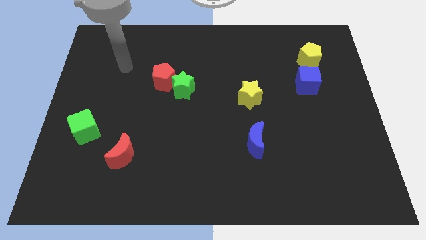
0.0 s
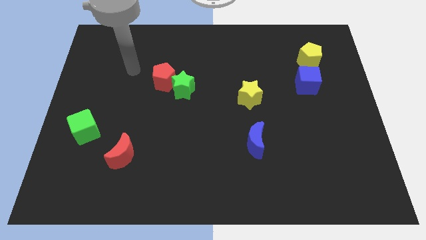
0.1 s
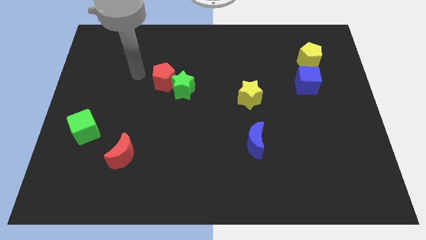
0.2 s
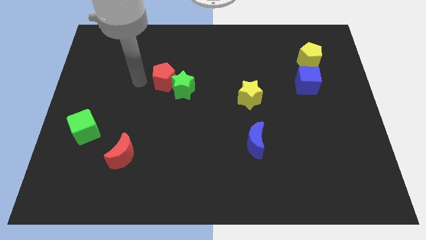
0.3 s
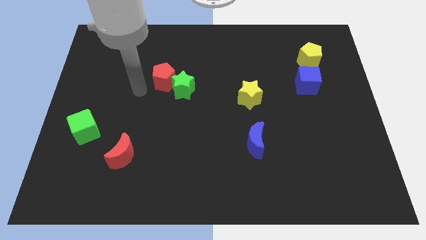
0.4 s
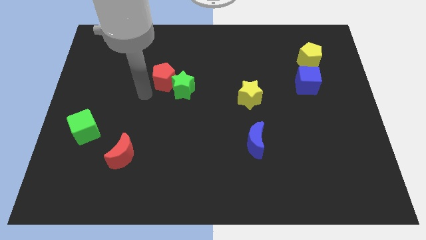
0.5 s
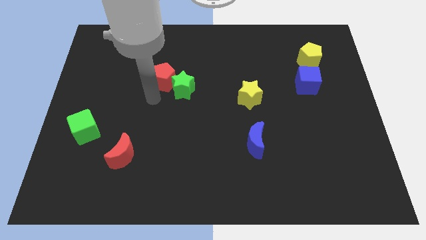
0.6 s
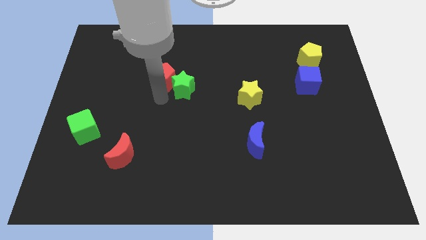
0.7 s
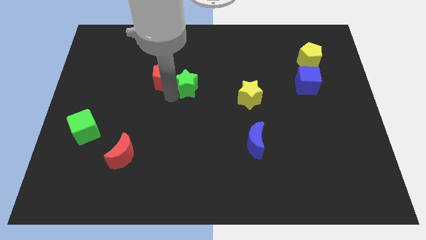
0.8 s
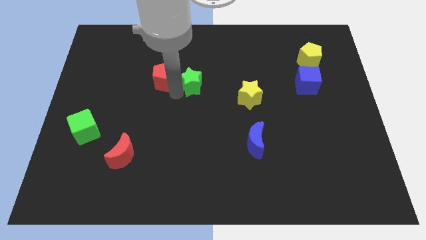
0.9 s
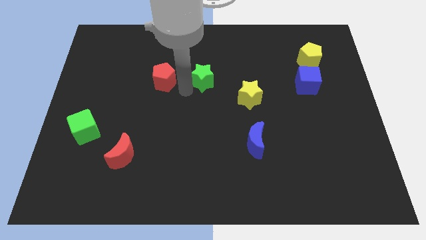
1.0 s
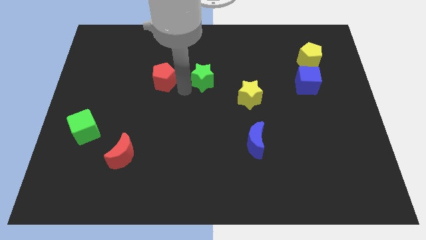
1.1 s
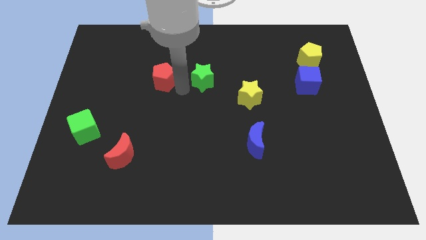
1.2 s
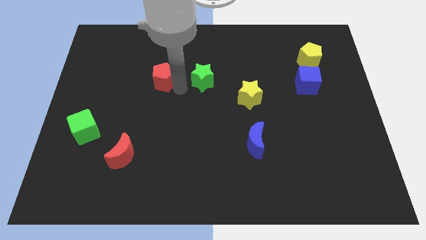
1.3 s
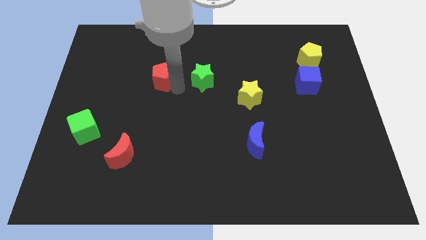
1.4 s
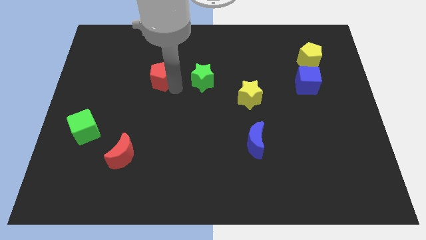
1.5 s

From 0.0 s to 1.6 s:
move the red pentagon away from the green star

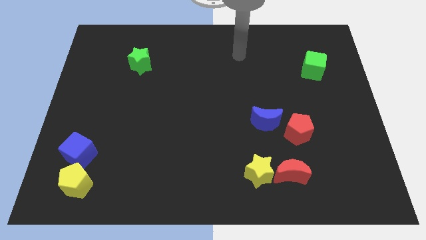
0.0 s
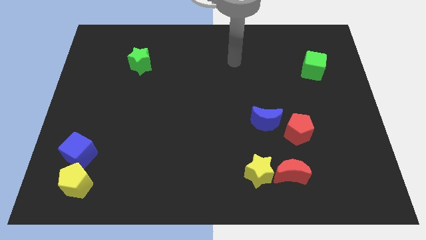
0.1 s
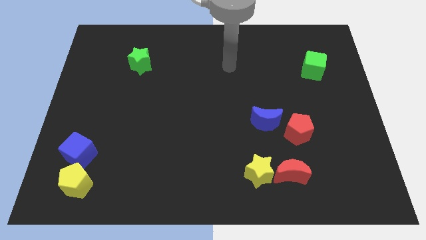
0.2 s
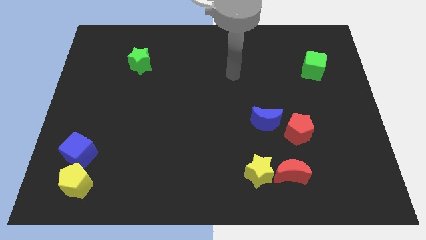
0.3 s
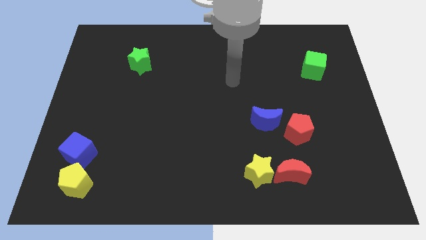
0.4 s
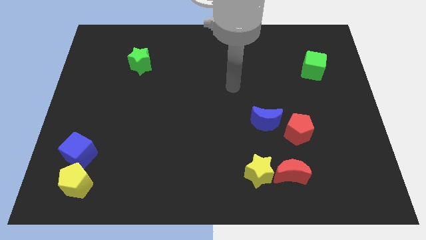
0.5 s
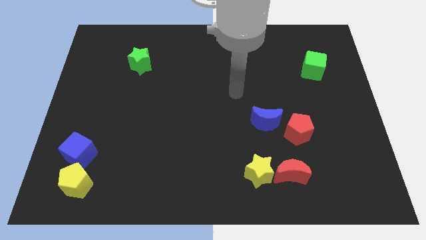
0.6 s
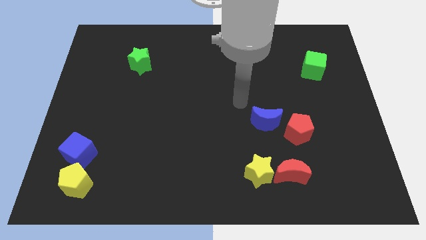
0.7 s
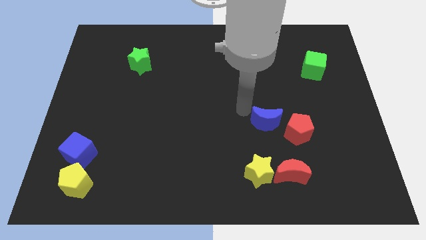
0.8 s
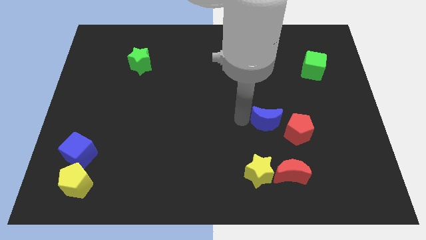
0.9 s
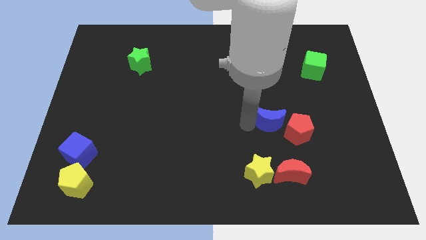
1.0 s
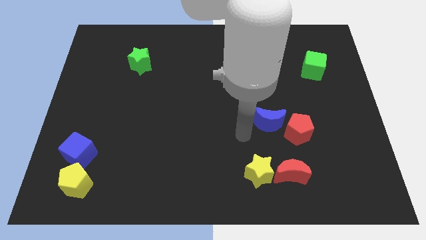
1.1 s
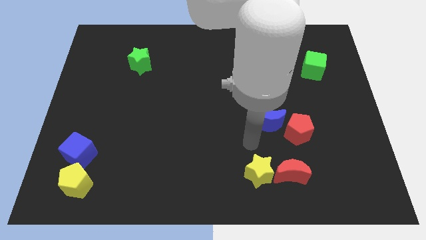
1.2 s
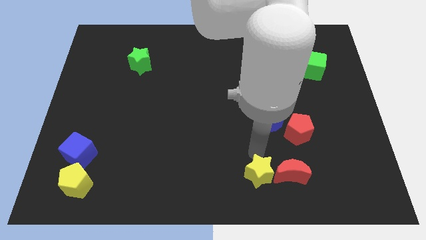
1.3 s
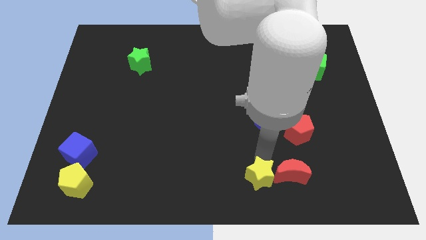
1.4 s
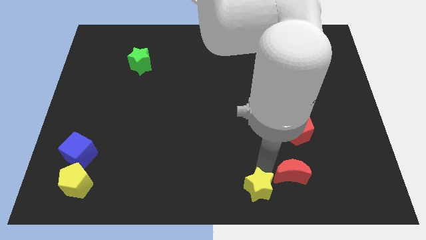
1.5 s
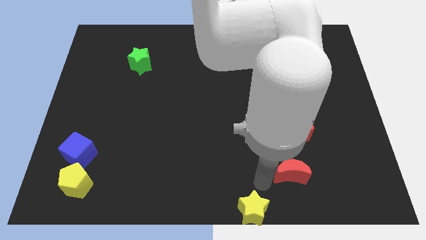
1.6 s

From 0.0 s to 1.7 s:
move the red moon away from the yellow star

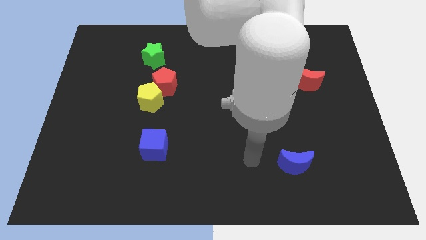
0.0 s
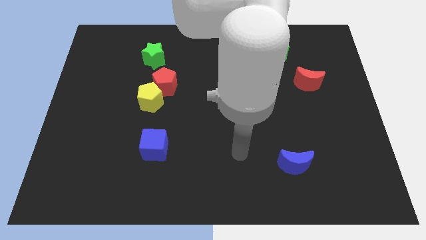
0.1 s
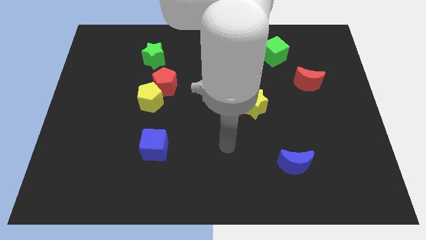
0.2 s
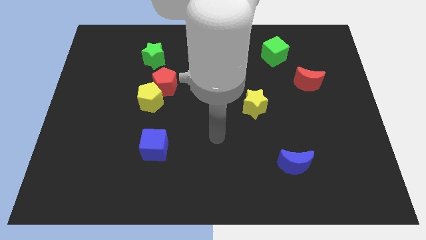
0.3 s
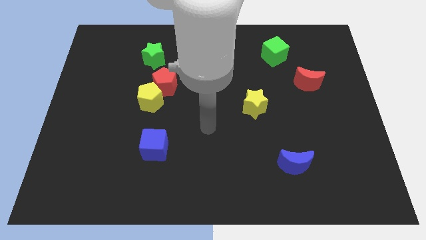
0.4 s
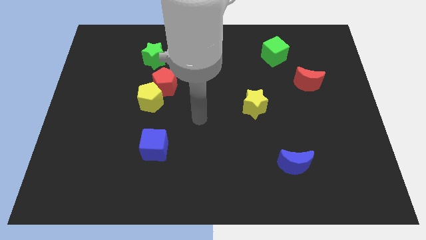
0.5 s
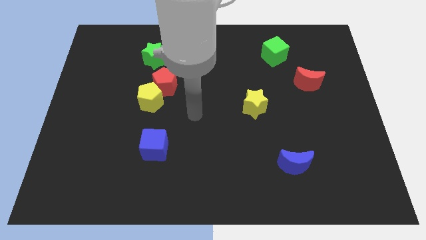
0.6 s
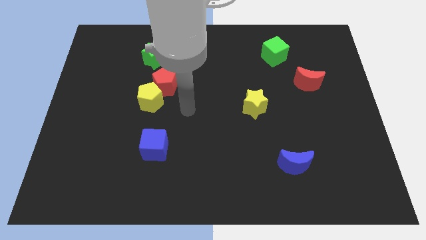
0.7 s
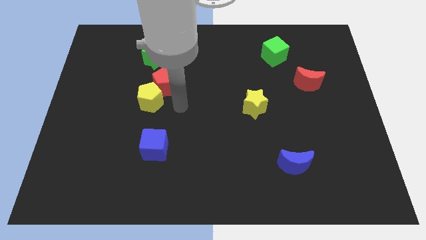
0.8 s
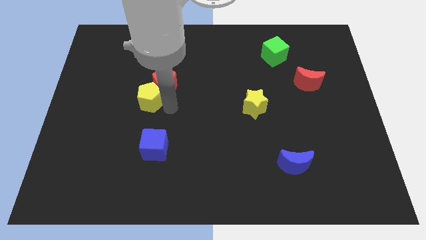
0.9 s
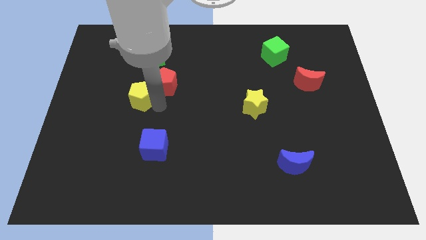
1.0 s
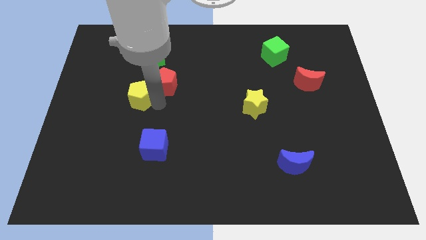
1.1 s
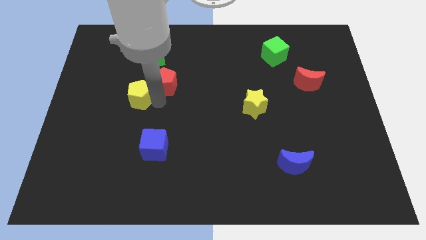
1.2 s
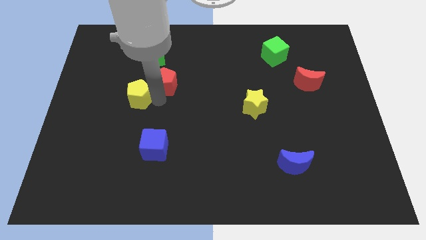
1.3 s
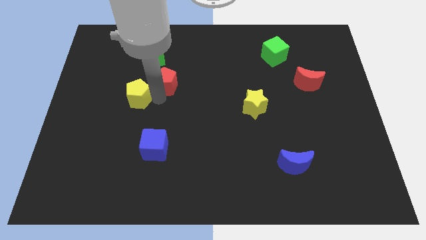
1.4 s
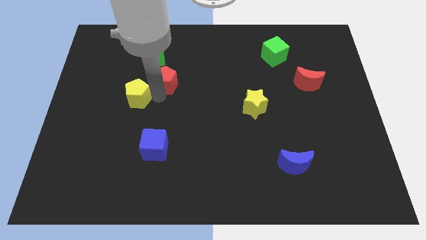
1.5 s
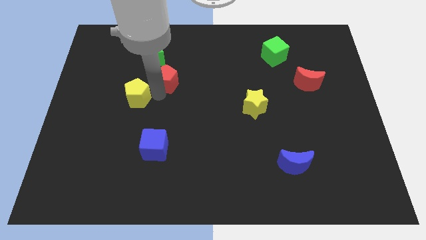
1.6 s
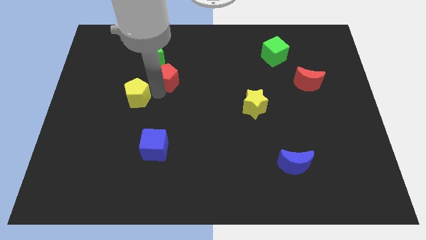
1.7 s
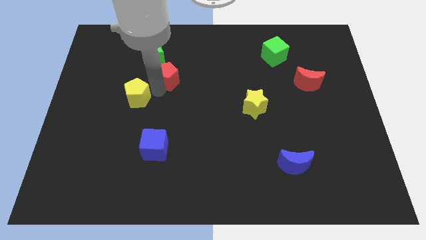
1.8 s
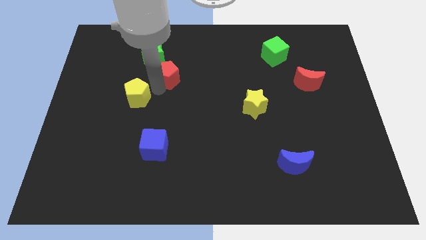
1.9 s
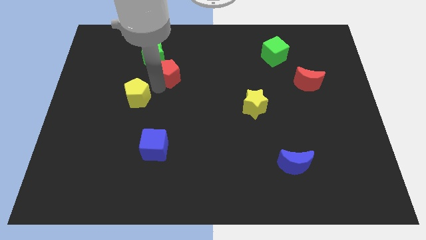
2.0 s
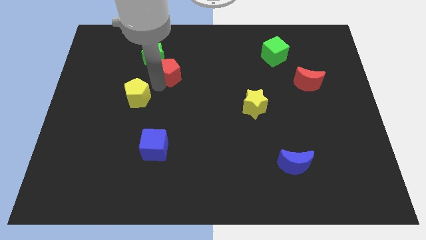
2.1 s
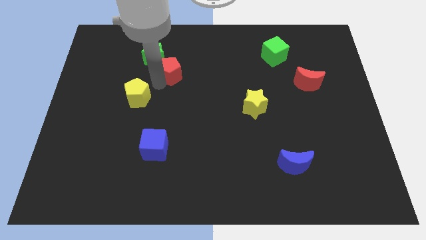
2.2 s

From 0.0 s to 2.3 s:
move the red pentagon away from the yellow pentagon

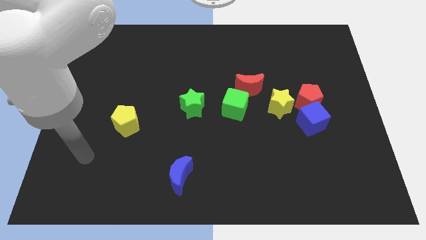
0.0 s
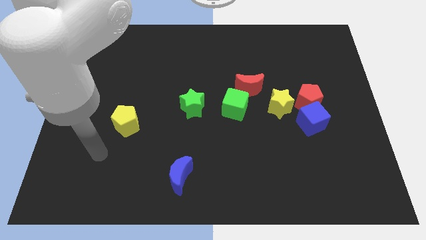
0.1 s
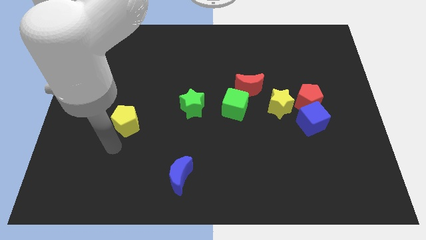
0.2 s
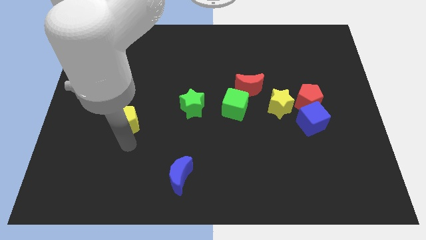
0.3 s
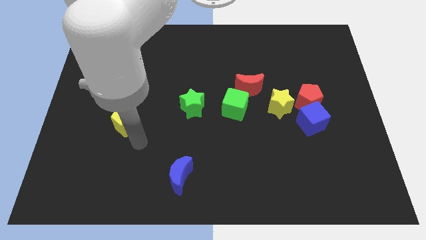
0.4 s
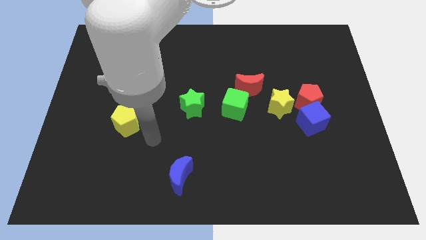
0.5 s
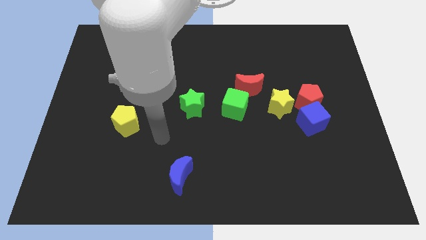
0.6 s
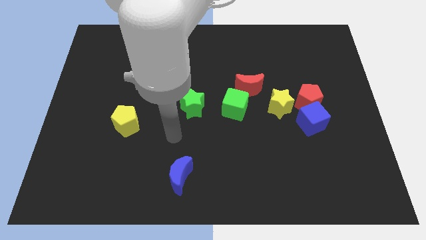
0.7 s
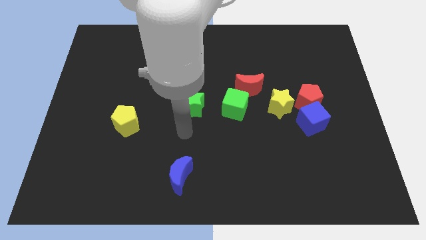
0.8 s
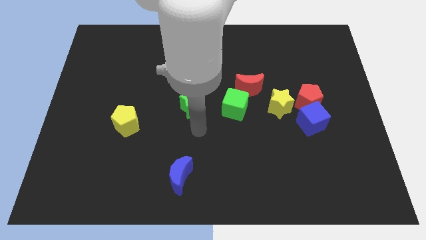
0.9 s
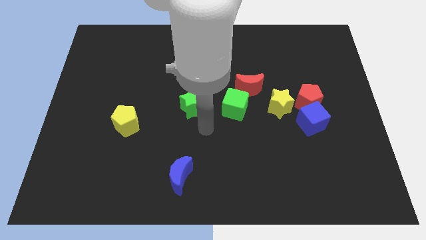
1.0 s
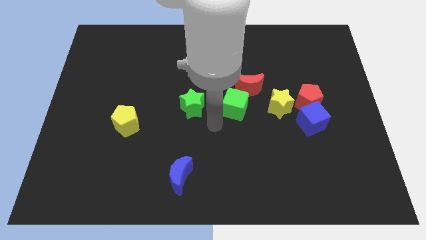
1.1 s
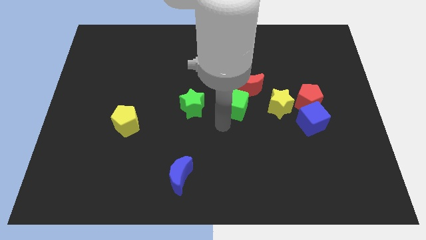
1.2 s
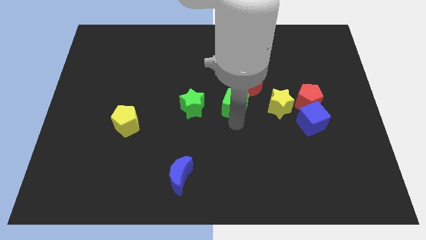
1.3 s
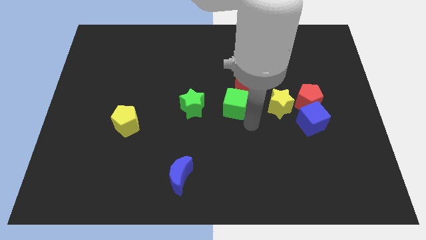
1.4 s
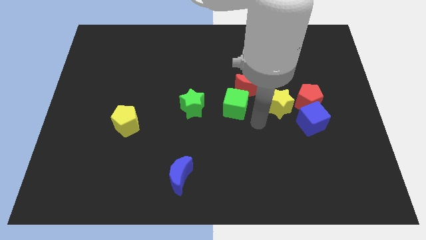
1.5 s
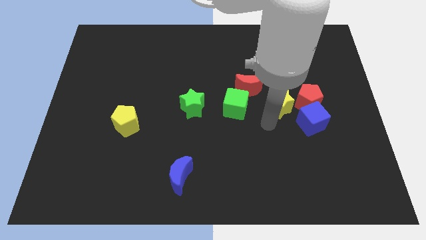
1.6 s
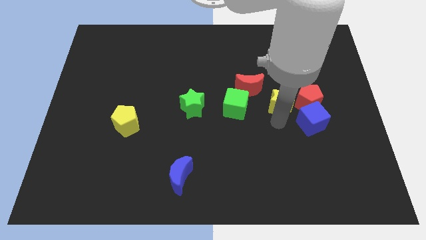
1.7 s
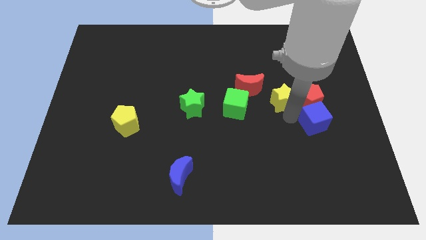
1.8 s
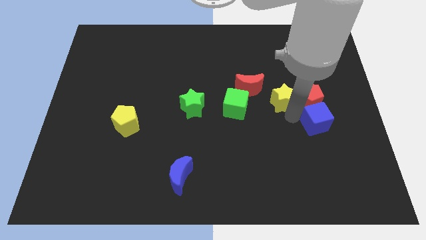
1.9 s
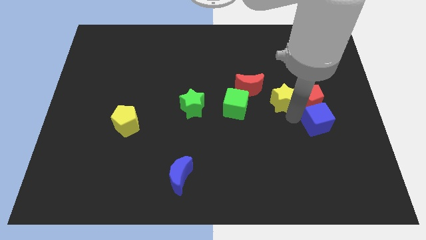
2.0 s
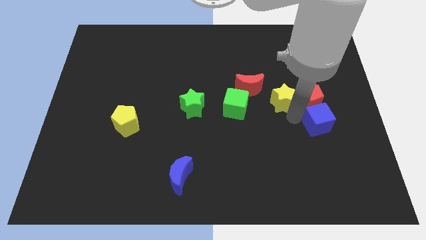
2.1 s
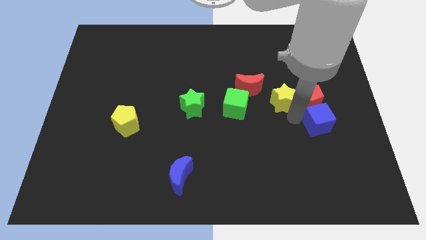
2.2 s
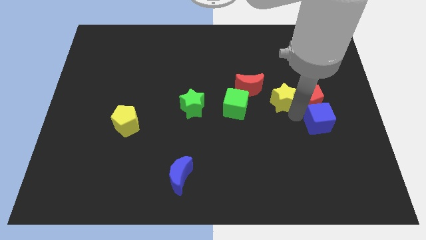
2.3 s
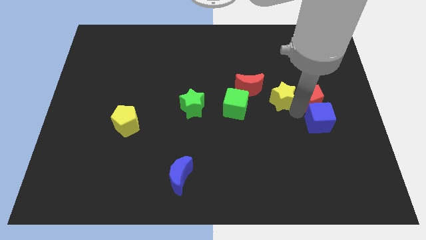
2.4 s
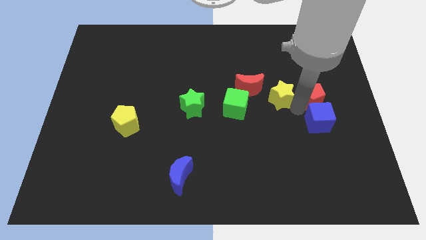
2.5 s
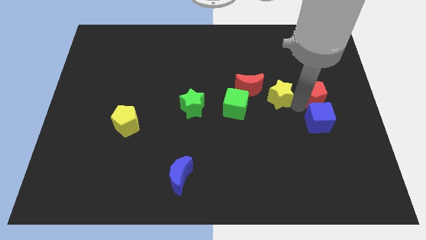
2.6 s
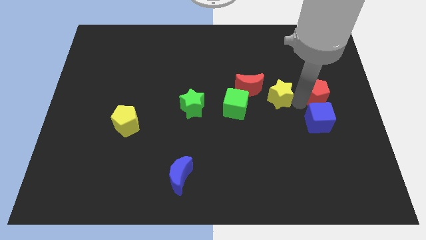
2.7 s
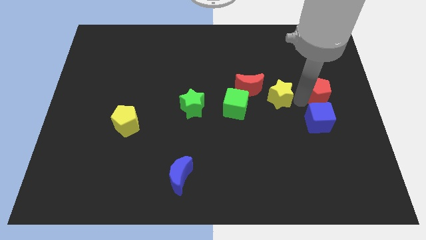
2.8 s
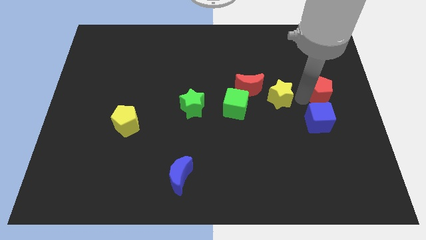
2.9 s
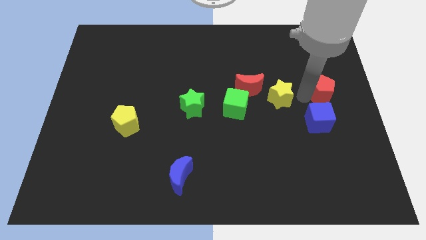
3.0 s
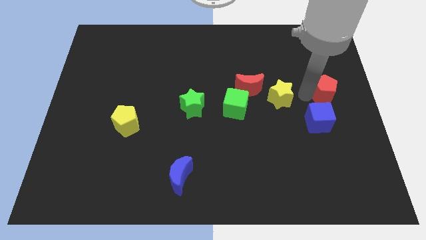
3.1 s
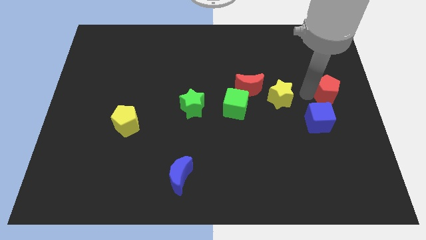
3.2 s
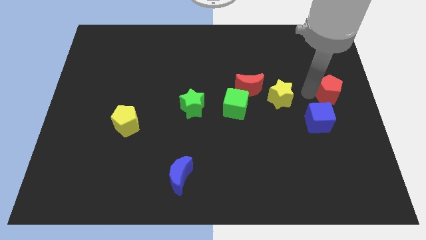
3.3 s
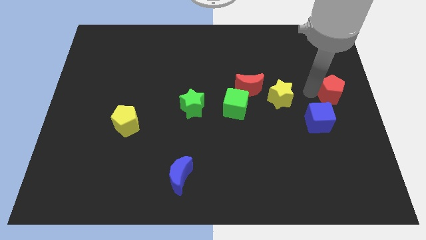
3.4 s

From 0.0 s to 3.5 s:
move the red pentagon away from the blue cube and yellow star

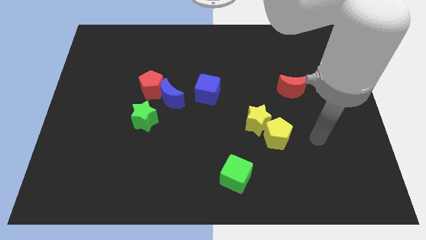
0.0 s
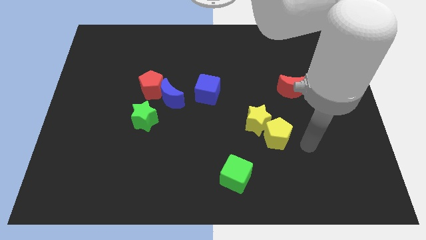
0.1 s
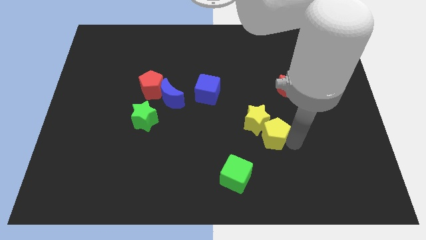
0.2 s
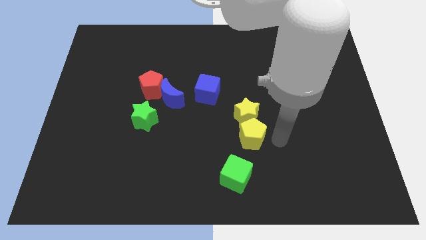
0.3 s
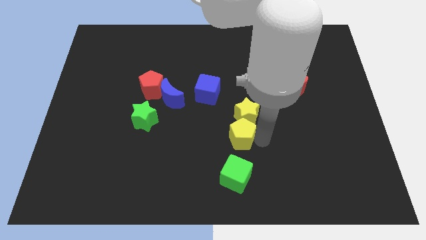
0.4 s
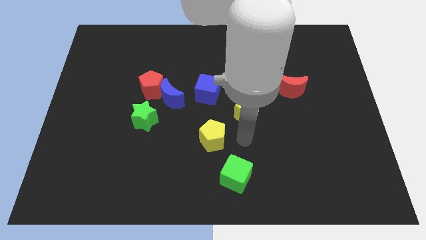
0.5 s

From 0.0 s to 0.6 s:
move the yellow star away from the yellow pentagon
